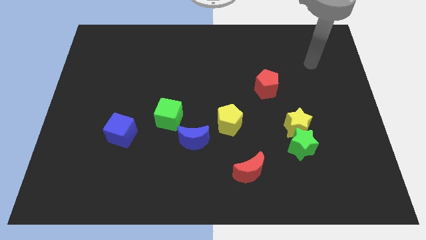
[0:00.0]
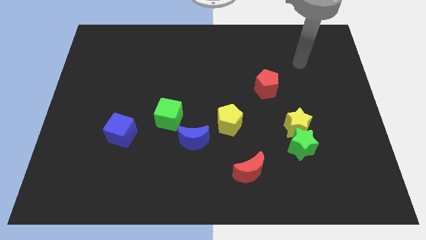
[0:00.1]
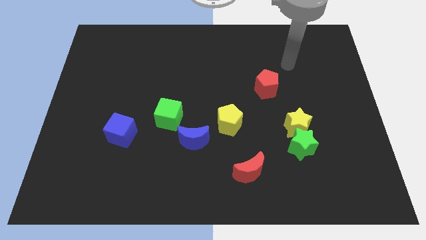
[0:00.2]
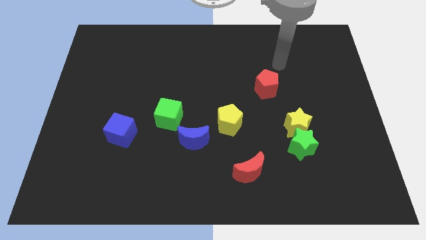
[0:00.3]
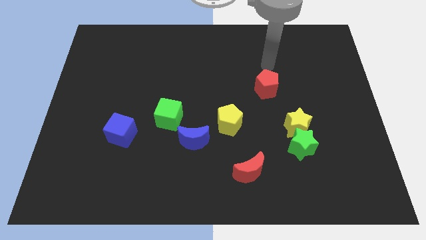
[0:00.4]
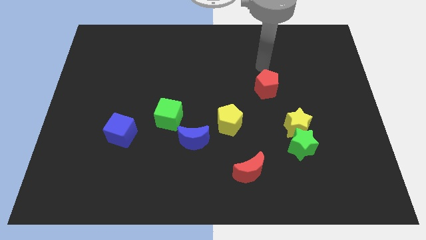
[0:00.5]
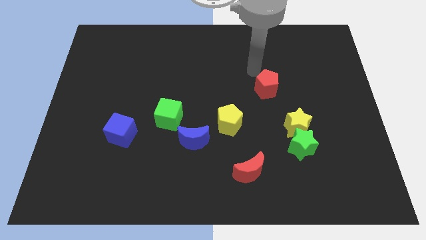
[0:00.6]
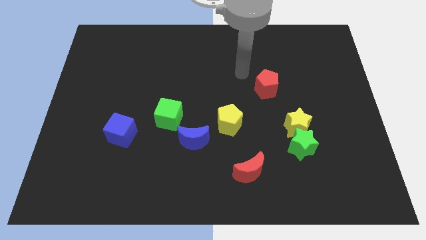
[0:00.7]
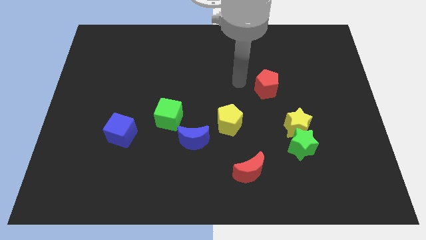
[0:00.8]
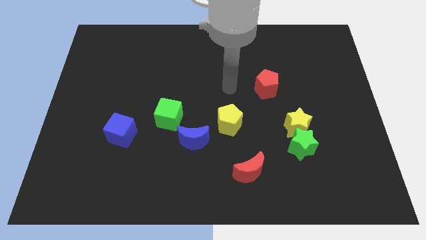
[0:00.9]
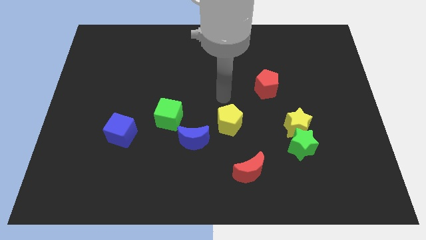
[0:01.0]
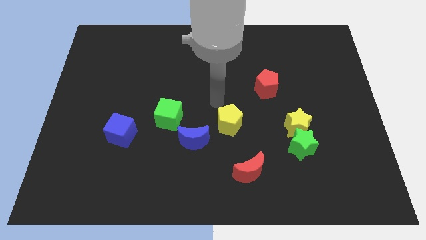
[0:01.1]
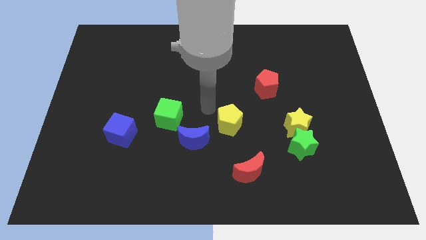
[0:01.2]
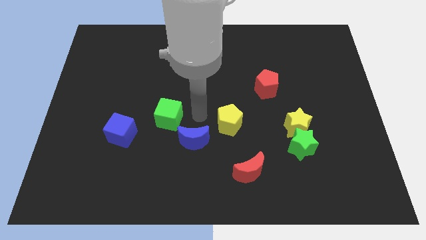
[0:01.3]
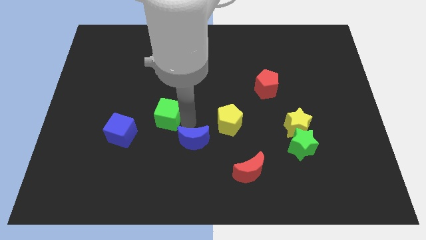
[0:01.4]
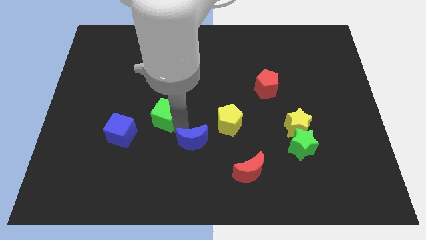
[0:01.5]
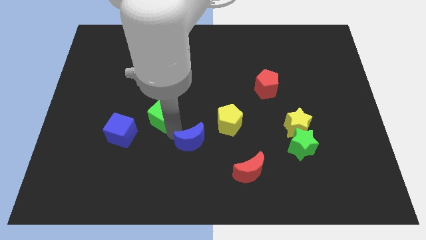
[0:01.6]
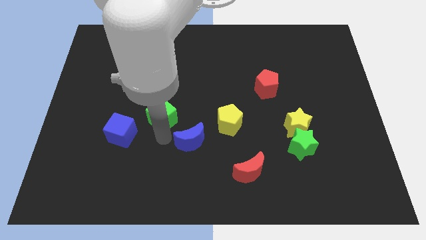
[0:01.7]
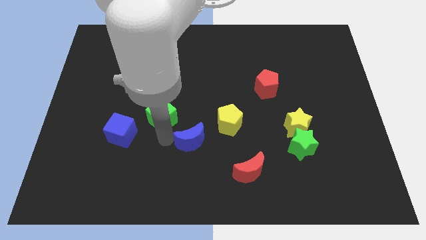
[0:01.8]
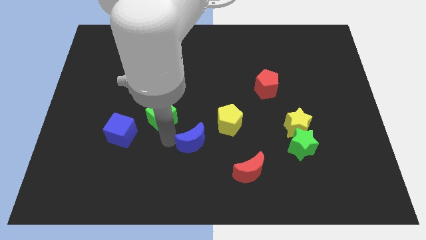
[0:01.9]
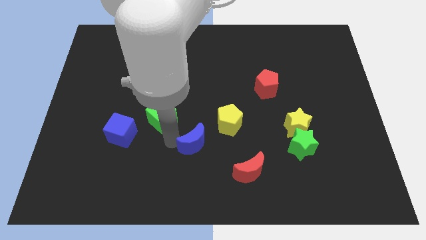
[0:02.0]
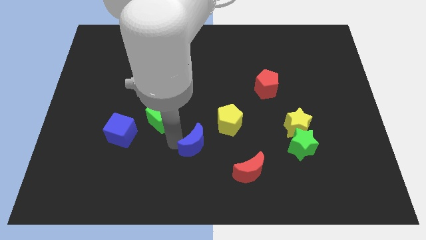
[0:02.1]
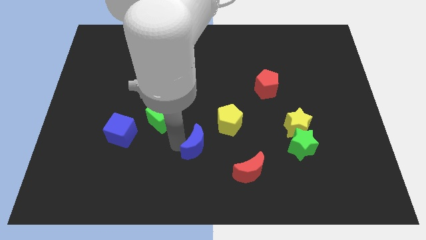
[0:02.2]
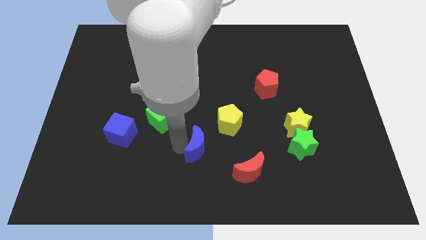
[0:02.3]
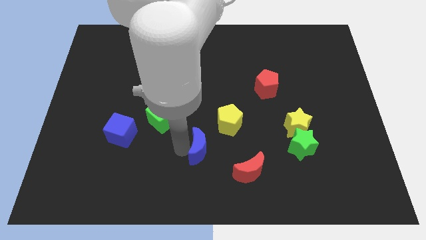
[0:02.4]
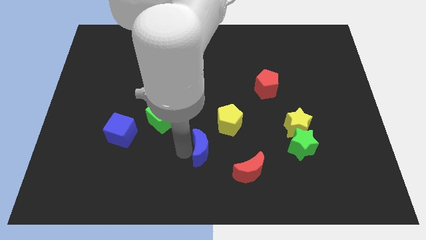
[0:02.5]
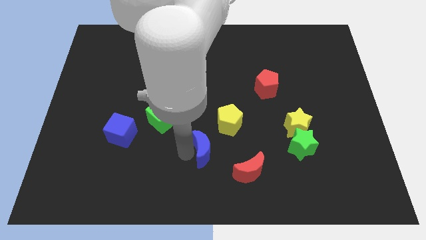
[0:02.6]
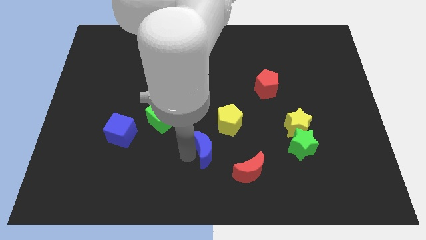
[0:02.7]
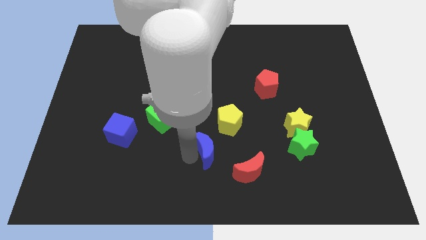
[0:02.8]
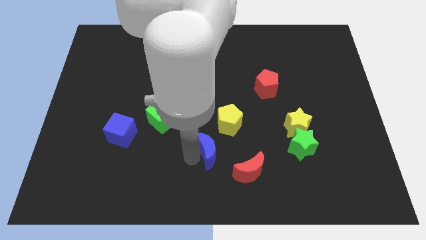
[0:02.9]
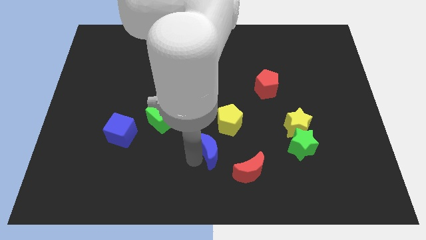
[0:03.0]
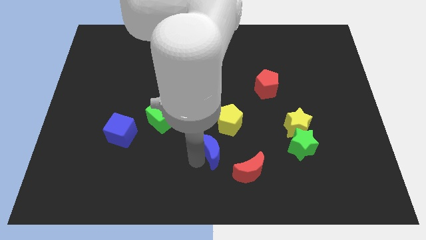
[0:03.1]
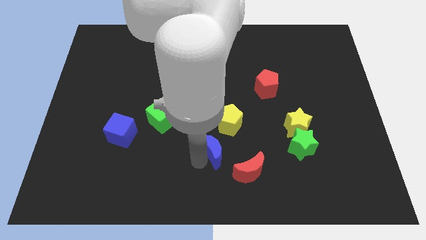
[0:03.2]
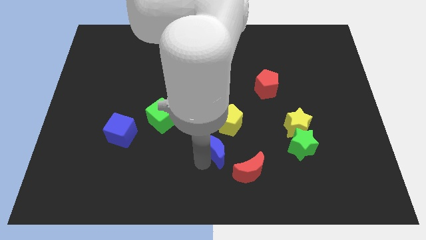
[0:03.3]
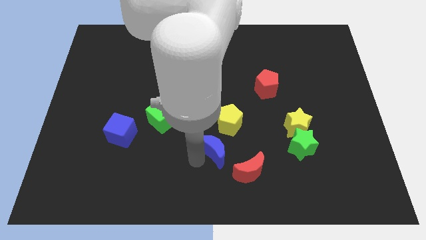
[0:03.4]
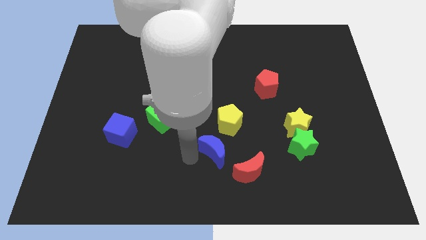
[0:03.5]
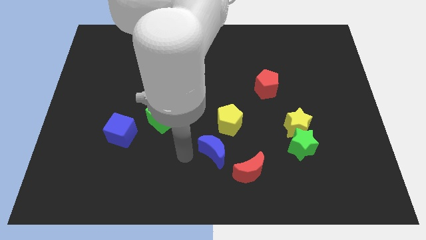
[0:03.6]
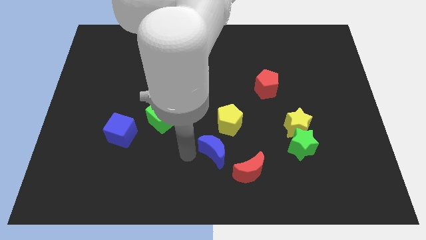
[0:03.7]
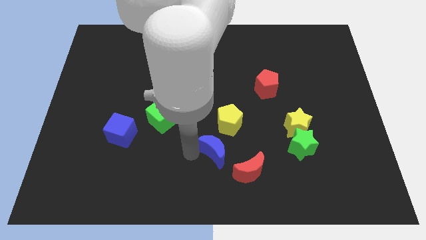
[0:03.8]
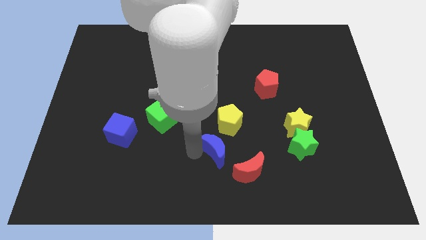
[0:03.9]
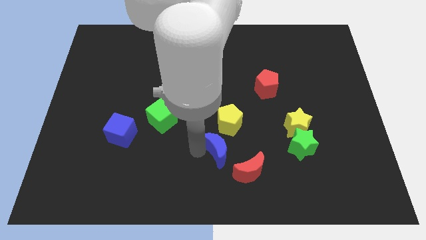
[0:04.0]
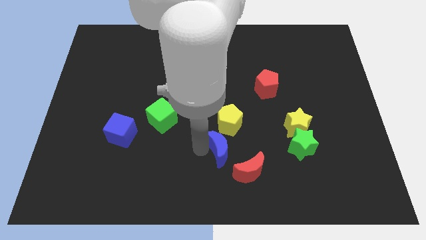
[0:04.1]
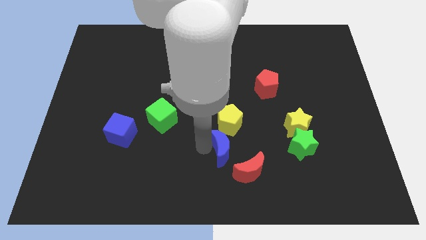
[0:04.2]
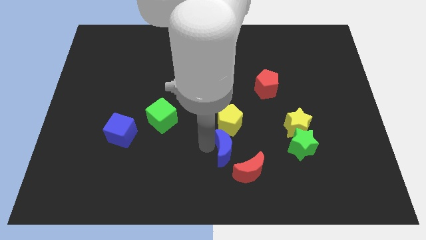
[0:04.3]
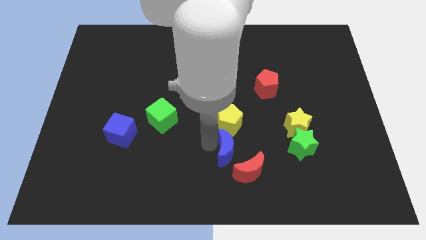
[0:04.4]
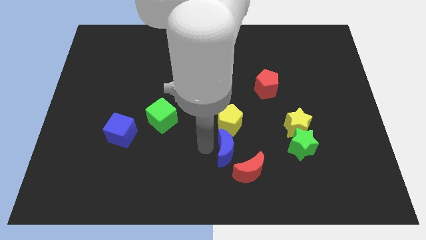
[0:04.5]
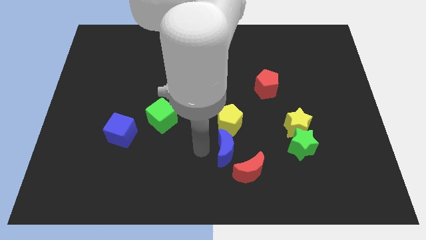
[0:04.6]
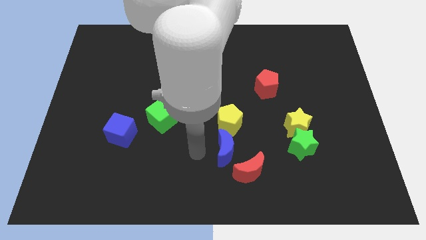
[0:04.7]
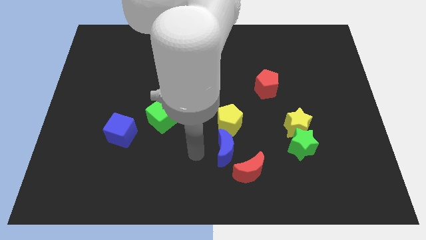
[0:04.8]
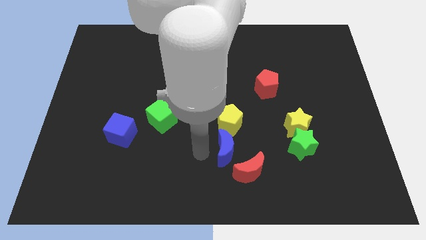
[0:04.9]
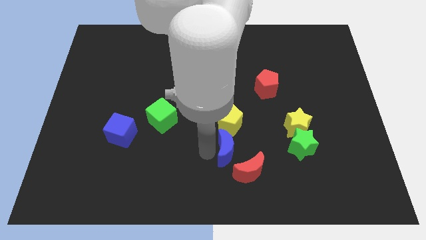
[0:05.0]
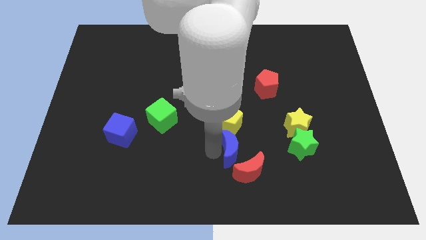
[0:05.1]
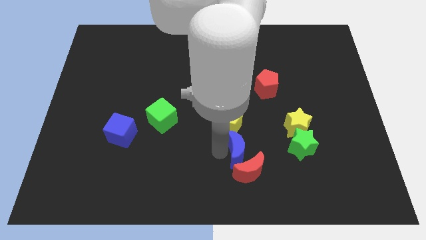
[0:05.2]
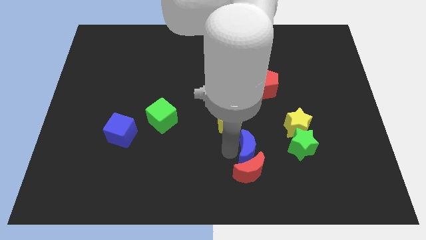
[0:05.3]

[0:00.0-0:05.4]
move the blue moon to the top right of the red moon

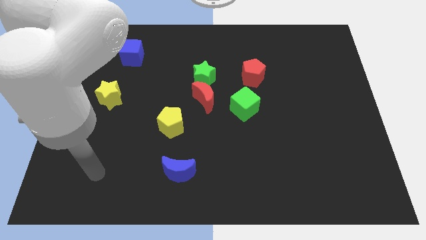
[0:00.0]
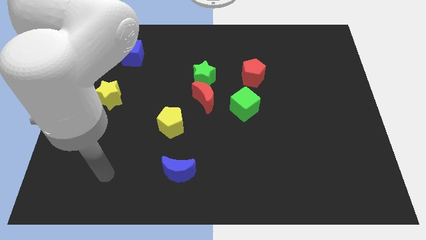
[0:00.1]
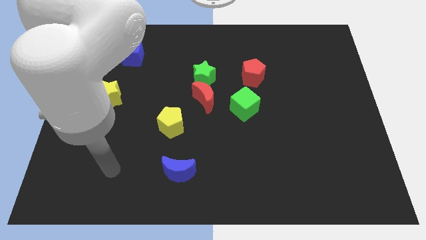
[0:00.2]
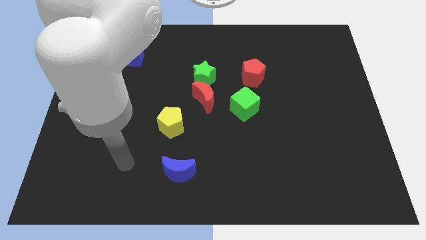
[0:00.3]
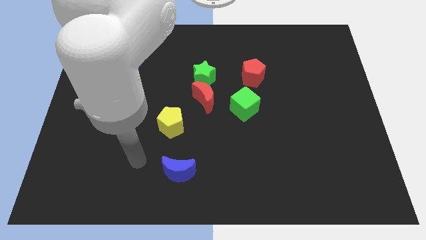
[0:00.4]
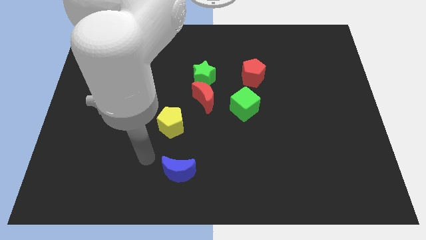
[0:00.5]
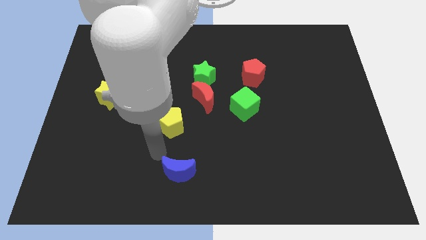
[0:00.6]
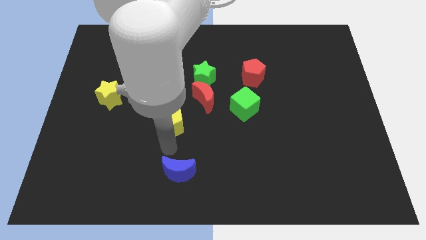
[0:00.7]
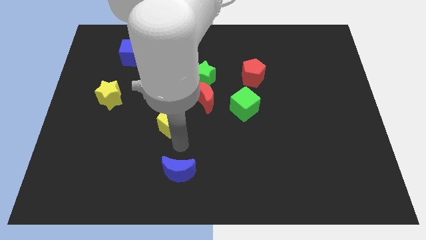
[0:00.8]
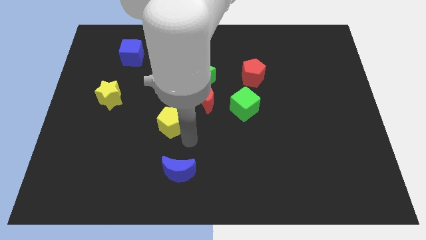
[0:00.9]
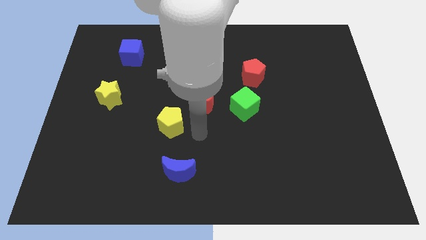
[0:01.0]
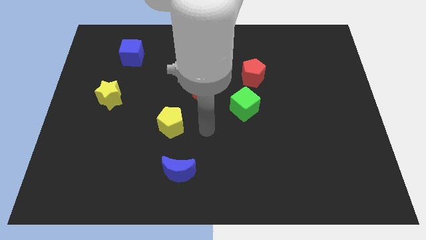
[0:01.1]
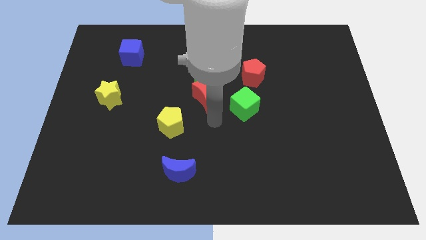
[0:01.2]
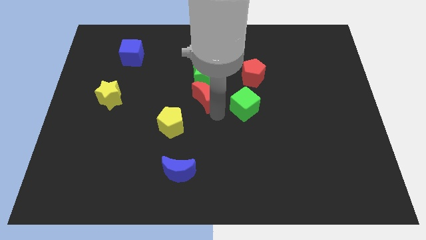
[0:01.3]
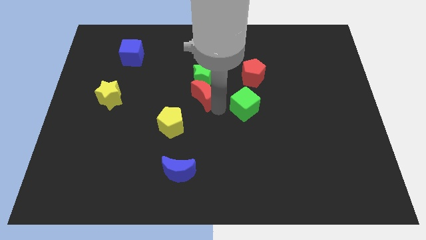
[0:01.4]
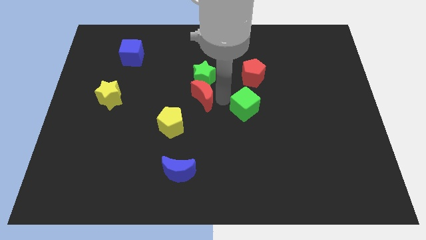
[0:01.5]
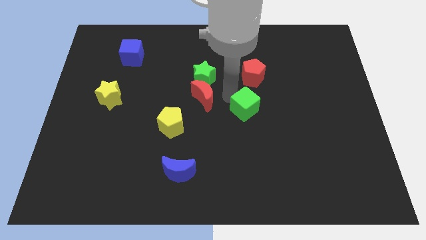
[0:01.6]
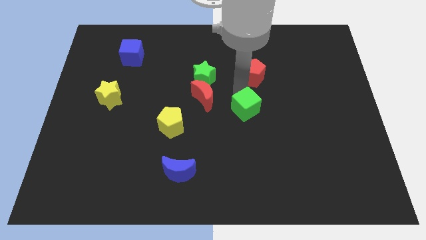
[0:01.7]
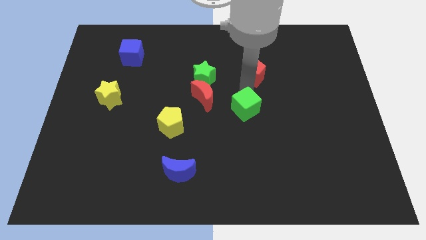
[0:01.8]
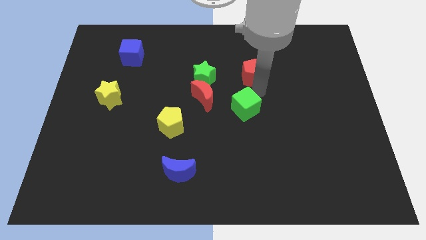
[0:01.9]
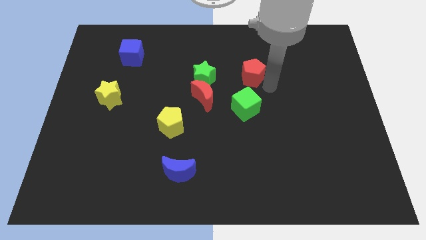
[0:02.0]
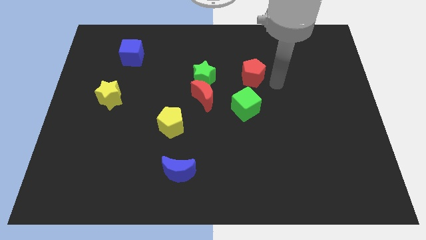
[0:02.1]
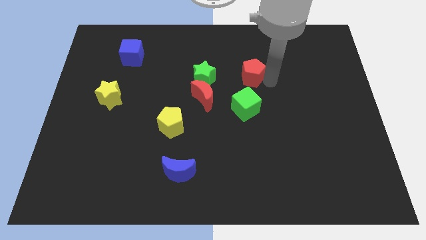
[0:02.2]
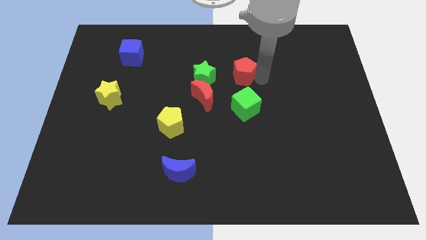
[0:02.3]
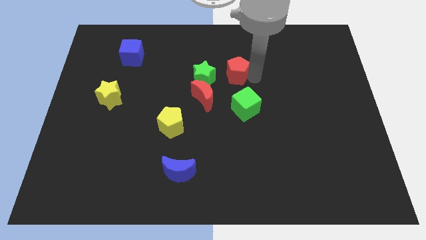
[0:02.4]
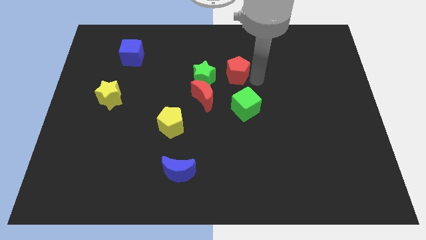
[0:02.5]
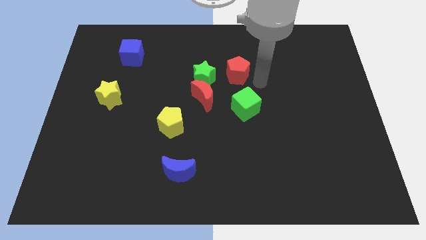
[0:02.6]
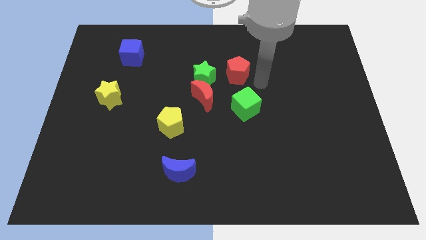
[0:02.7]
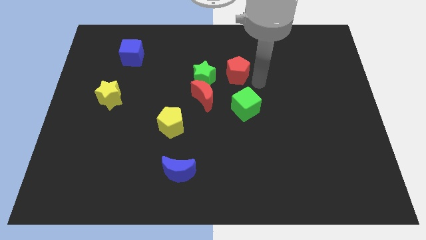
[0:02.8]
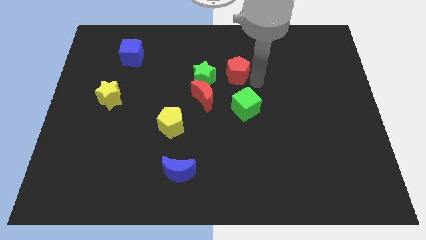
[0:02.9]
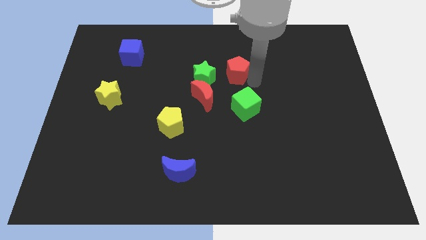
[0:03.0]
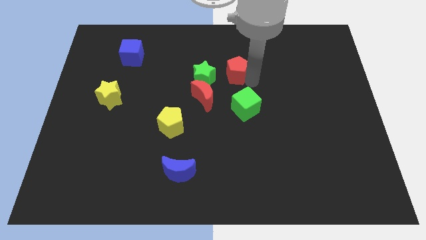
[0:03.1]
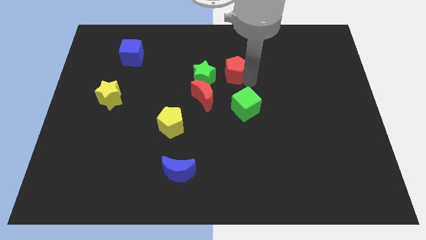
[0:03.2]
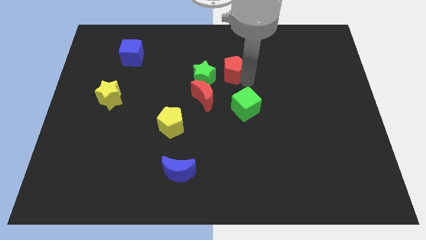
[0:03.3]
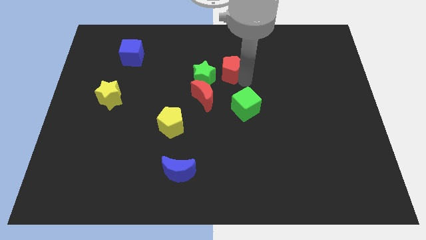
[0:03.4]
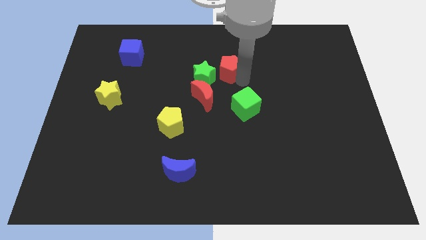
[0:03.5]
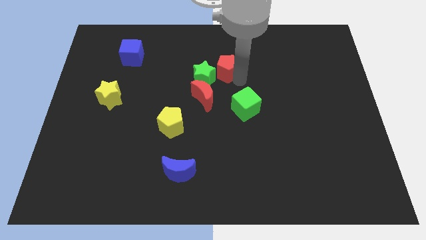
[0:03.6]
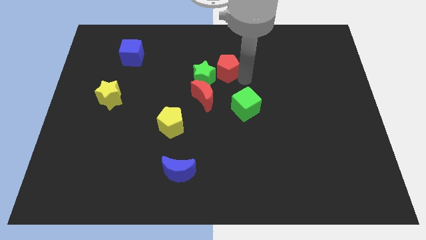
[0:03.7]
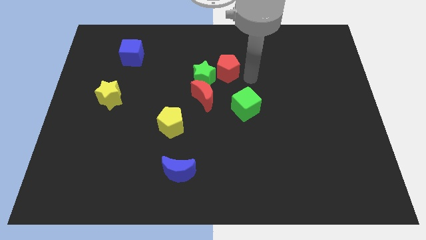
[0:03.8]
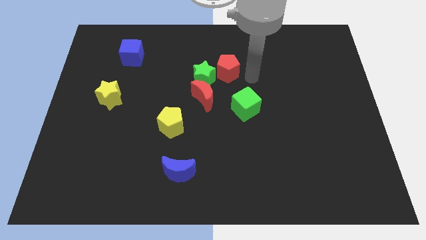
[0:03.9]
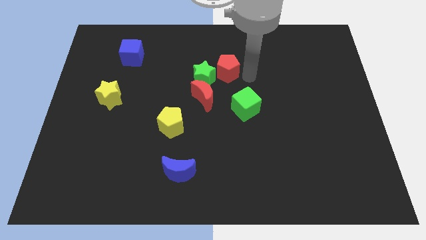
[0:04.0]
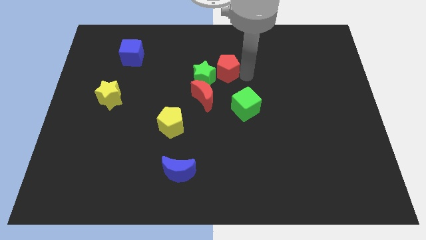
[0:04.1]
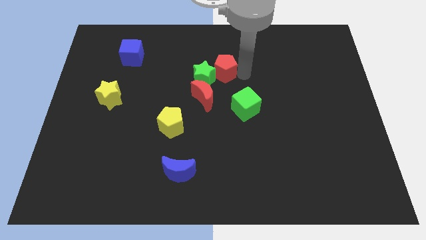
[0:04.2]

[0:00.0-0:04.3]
push the red pentagon to the top side of the red moon
